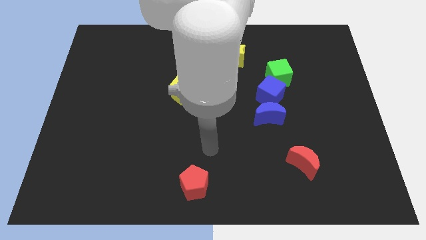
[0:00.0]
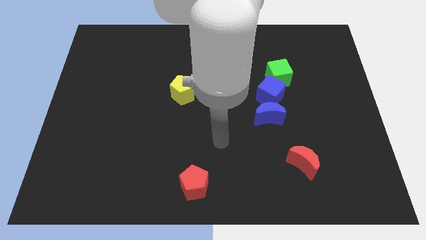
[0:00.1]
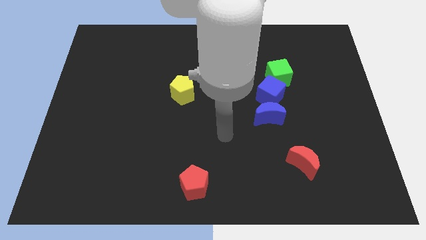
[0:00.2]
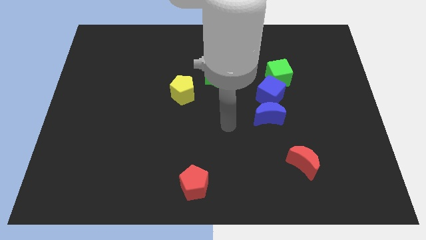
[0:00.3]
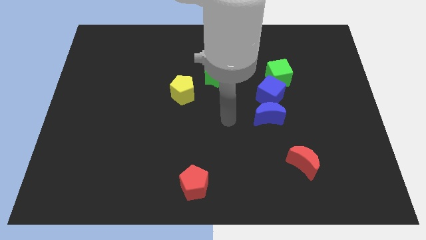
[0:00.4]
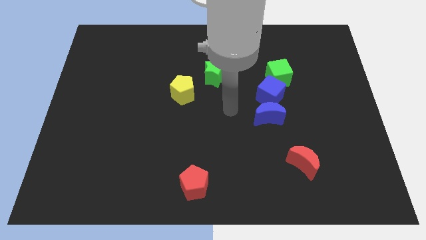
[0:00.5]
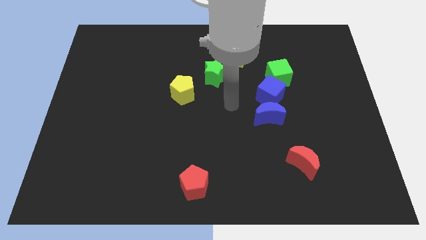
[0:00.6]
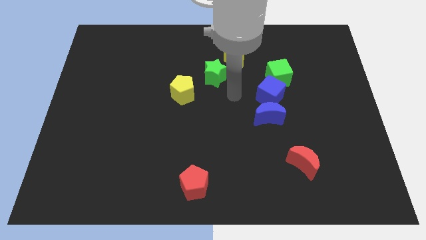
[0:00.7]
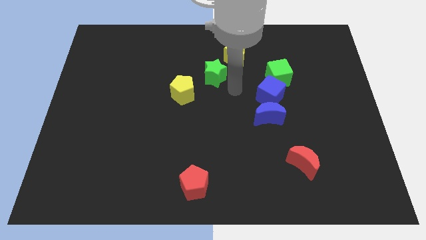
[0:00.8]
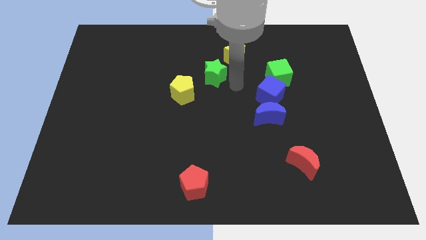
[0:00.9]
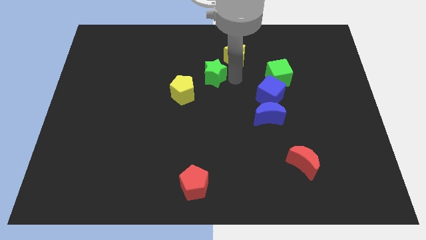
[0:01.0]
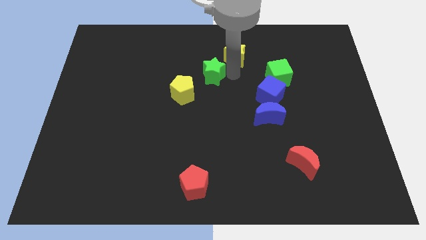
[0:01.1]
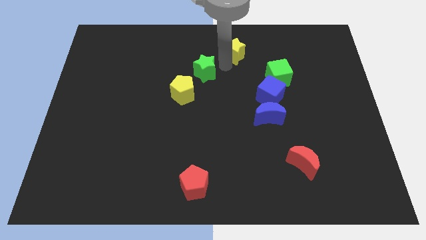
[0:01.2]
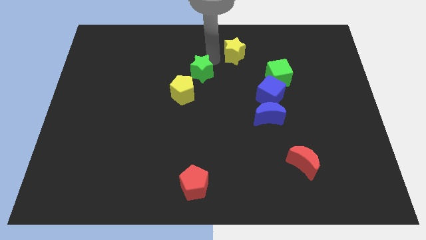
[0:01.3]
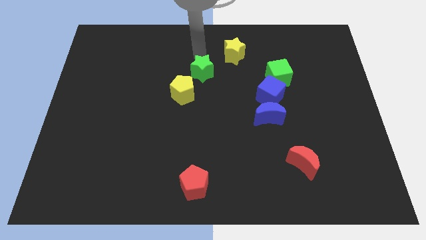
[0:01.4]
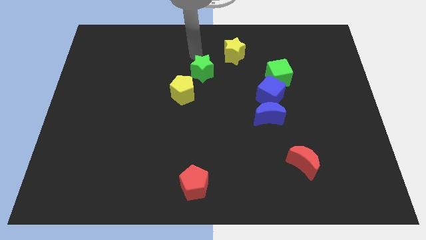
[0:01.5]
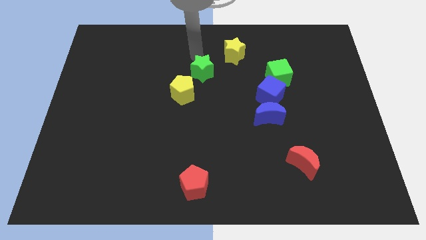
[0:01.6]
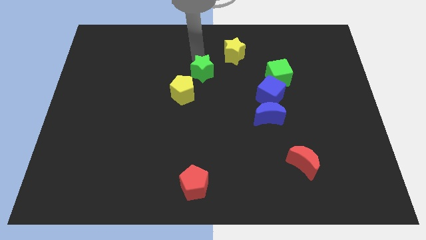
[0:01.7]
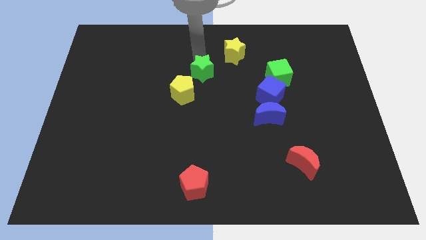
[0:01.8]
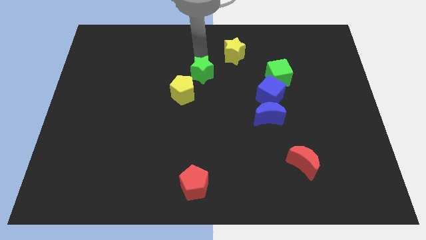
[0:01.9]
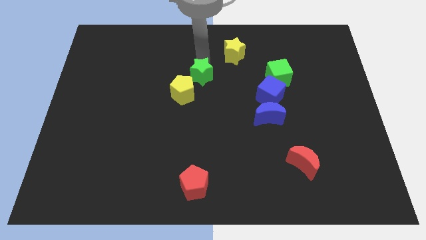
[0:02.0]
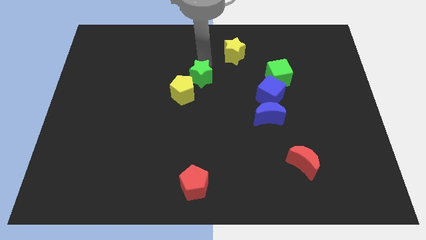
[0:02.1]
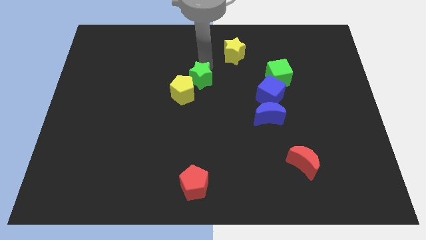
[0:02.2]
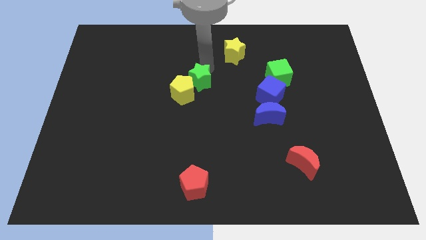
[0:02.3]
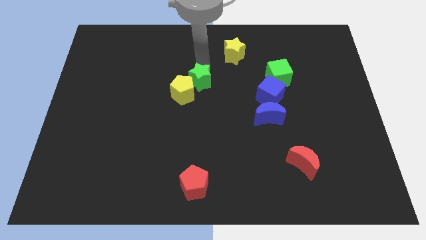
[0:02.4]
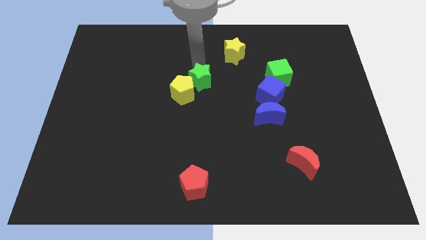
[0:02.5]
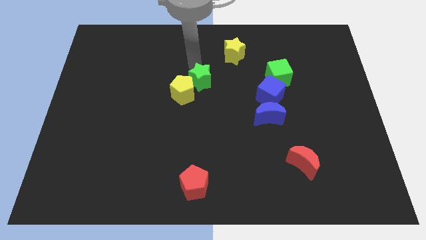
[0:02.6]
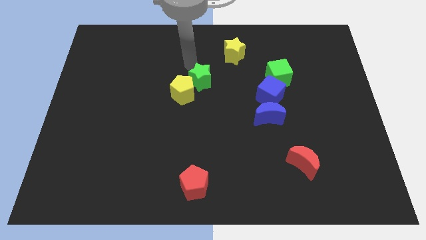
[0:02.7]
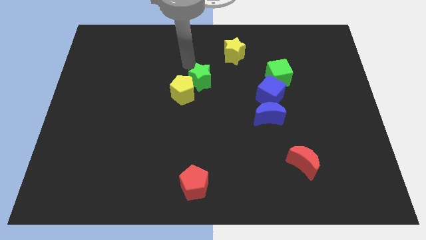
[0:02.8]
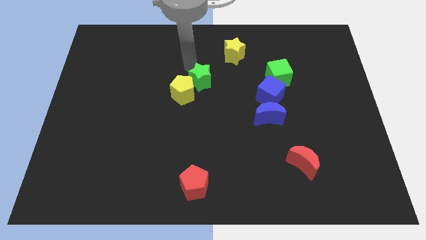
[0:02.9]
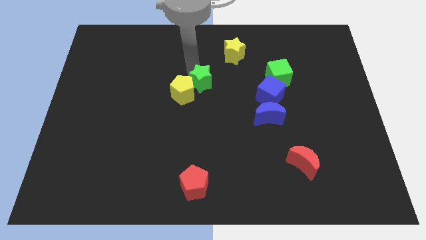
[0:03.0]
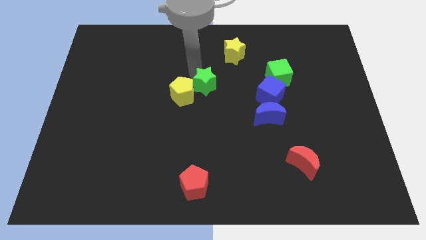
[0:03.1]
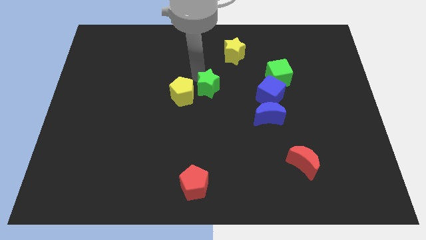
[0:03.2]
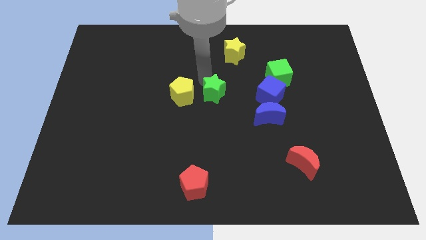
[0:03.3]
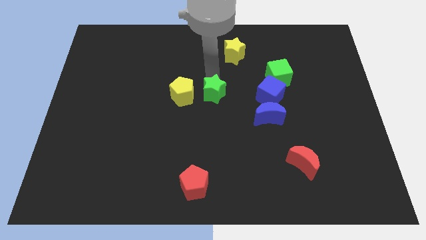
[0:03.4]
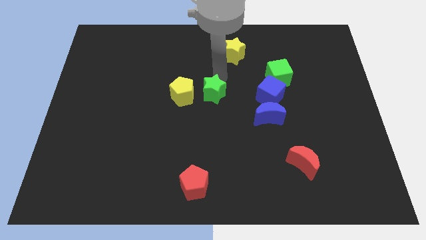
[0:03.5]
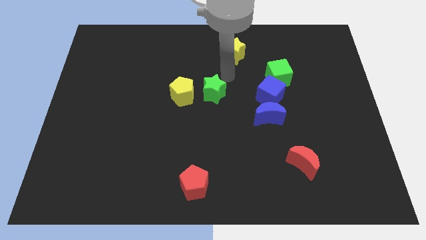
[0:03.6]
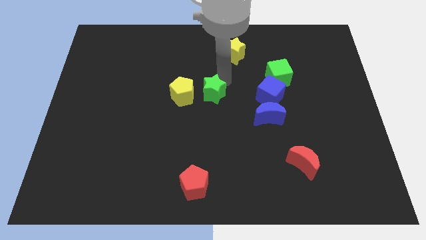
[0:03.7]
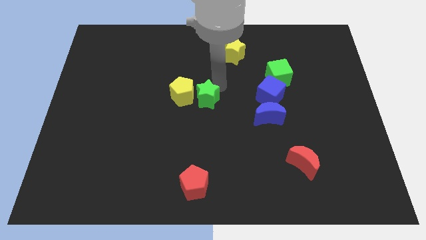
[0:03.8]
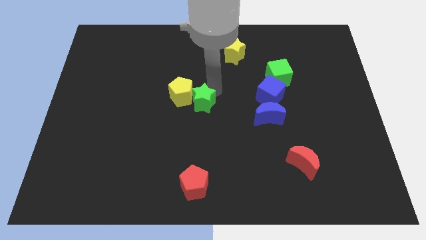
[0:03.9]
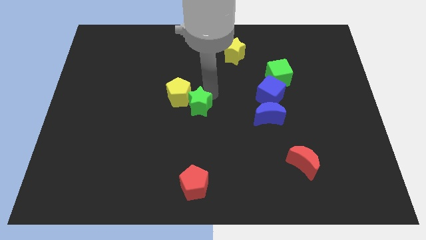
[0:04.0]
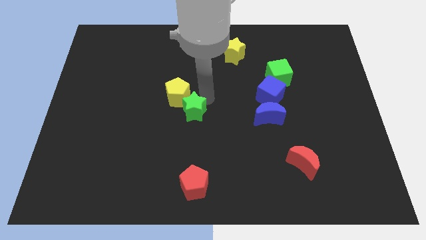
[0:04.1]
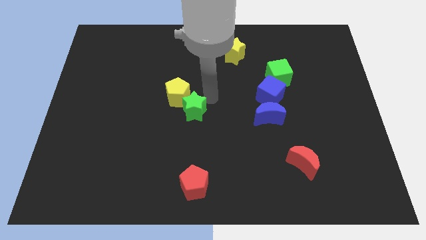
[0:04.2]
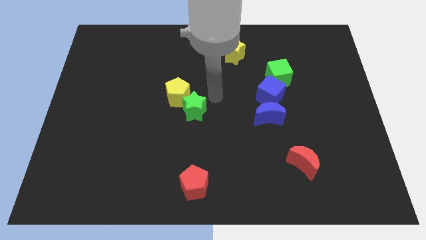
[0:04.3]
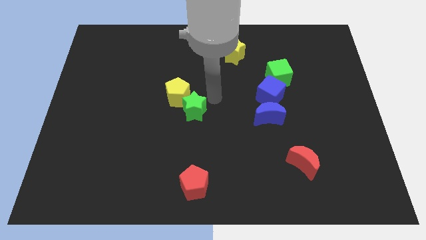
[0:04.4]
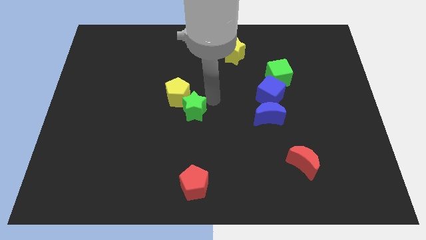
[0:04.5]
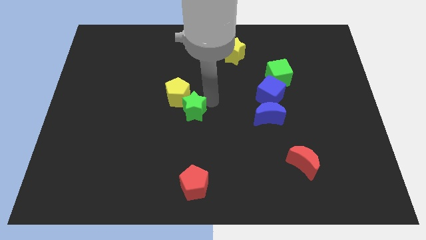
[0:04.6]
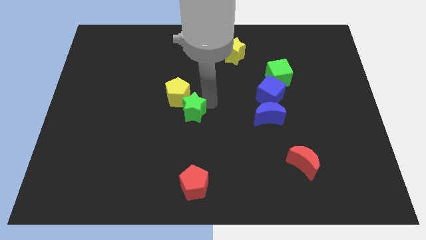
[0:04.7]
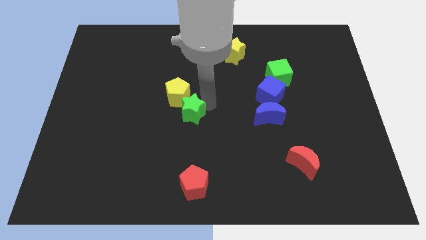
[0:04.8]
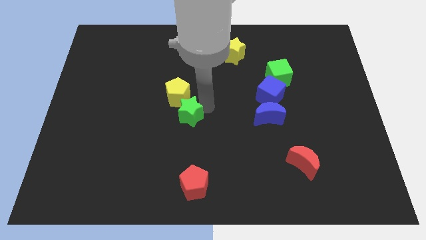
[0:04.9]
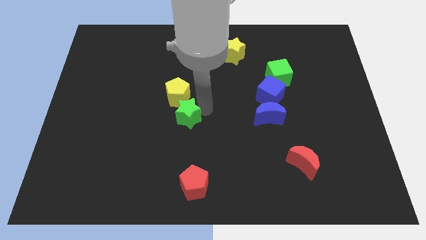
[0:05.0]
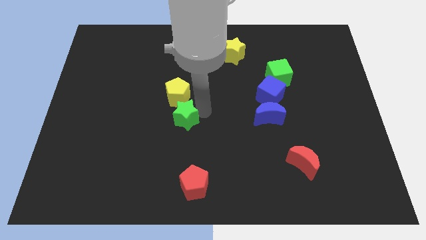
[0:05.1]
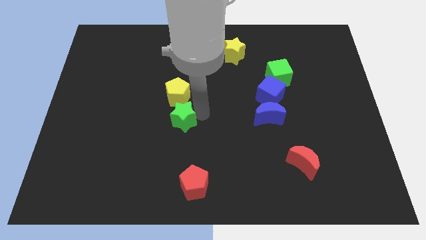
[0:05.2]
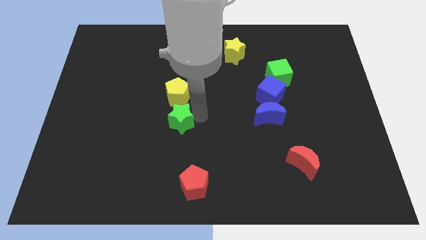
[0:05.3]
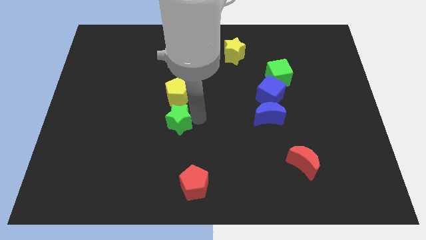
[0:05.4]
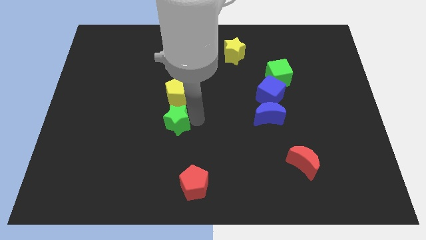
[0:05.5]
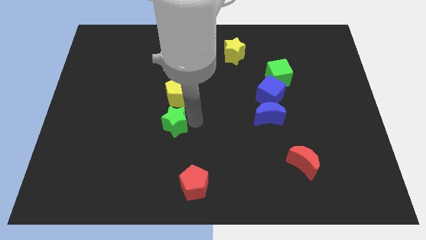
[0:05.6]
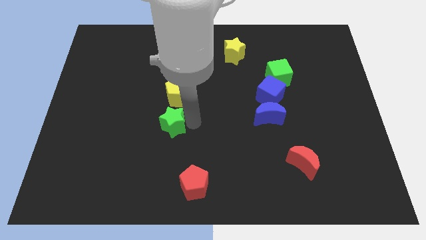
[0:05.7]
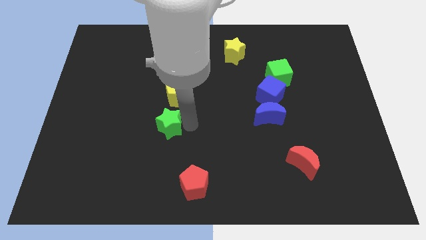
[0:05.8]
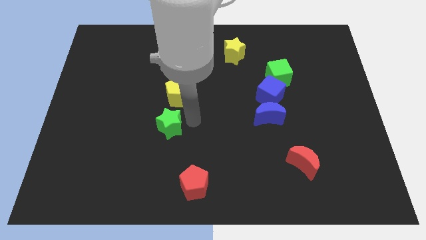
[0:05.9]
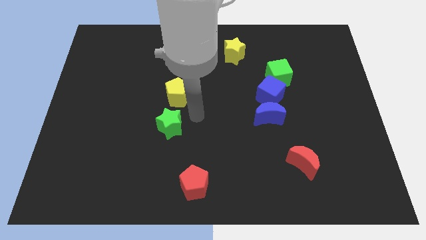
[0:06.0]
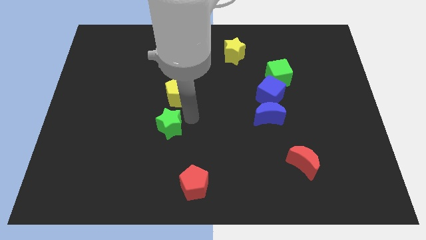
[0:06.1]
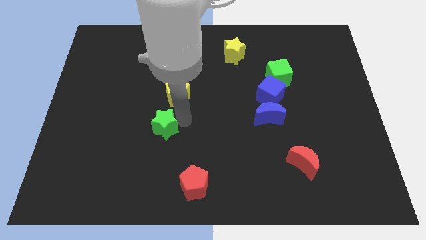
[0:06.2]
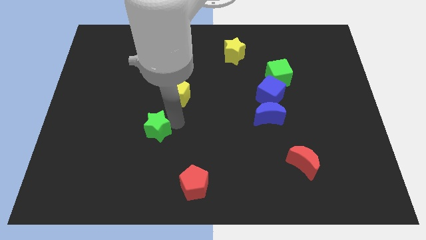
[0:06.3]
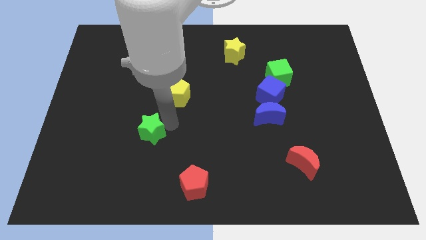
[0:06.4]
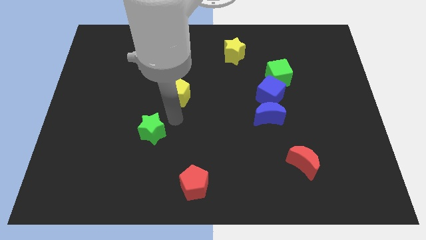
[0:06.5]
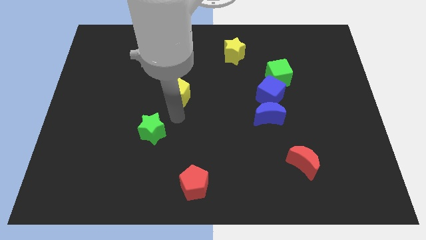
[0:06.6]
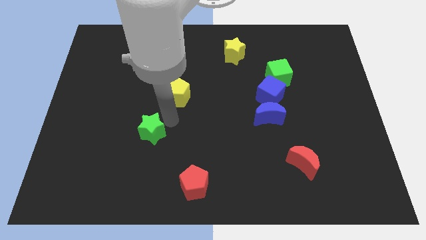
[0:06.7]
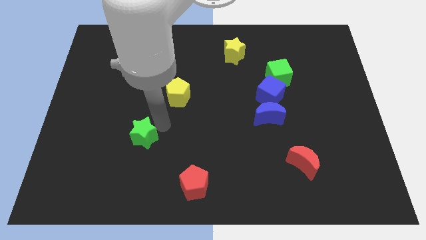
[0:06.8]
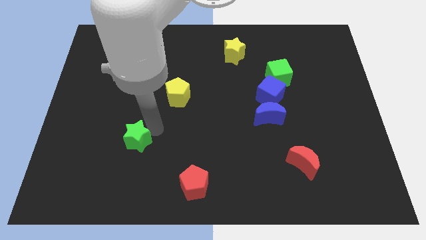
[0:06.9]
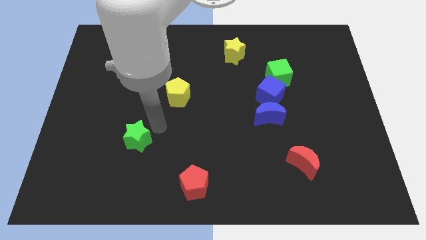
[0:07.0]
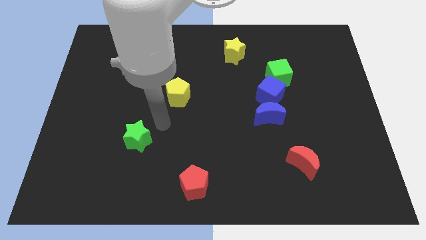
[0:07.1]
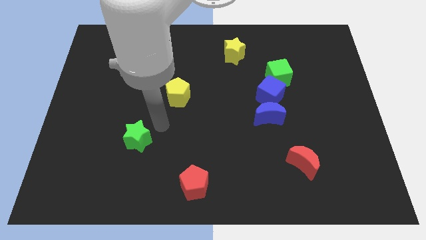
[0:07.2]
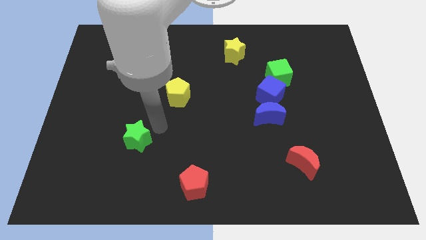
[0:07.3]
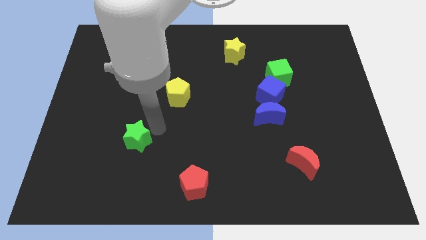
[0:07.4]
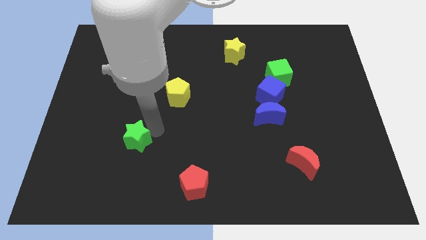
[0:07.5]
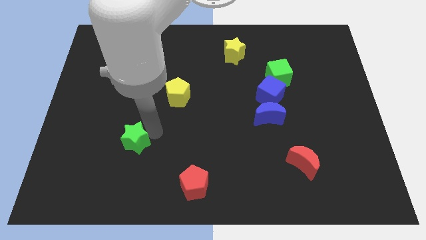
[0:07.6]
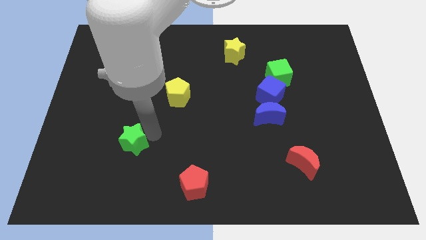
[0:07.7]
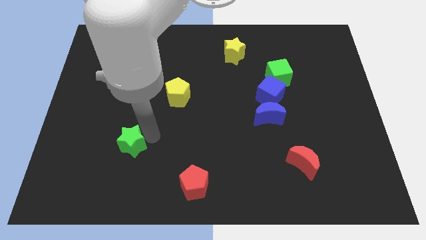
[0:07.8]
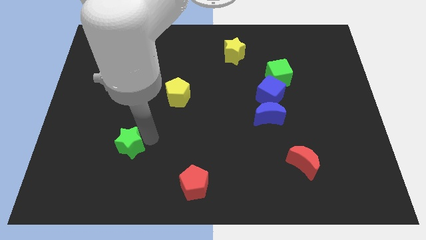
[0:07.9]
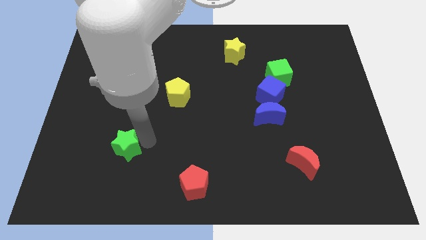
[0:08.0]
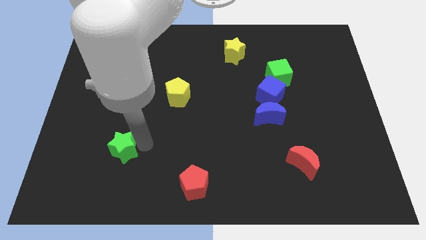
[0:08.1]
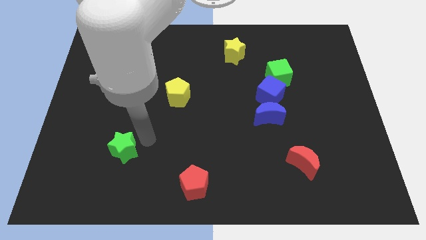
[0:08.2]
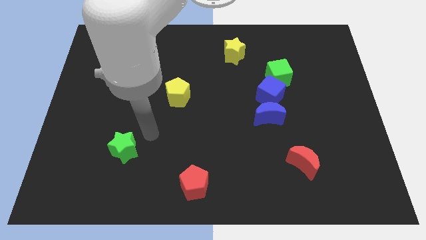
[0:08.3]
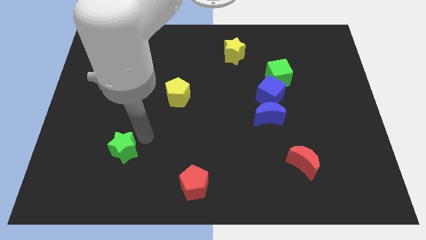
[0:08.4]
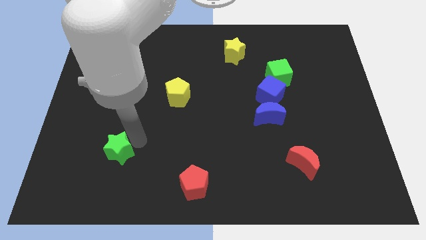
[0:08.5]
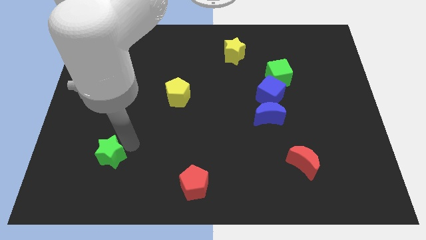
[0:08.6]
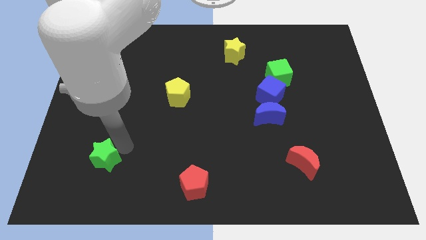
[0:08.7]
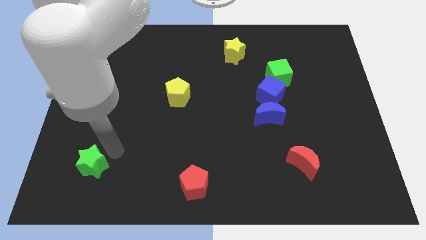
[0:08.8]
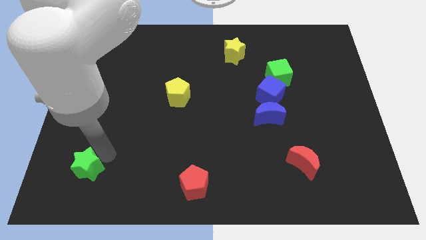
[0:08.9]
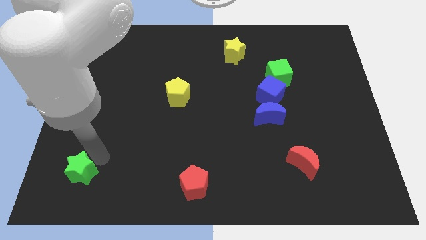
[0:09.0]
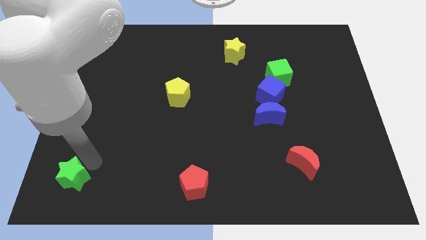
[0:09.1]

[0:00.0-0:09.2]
put the green star to the lower left corner
